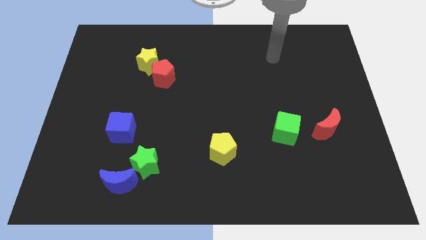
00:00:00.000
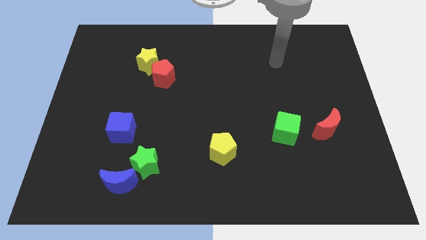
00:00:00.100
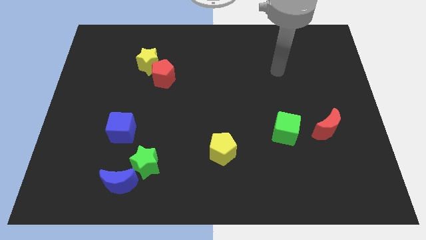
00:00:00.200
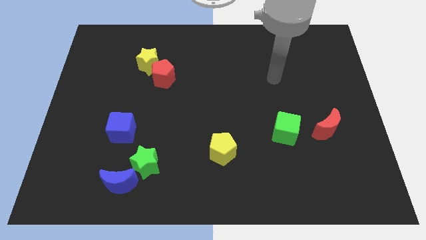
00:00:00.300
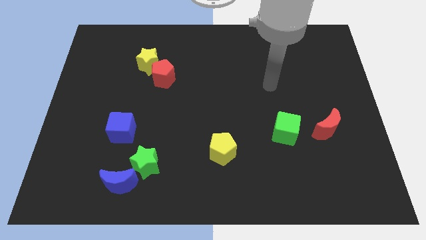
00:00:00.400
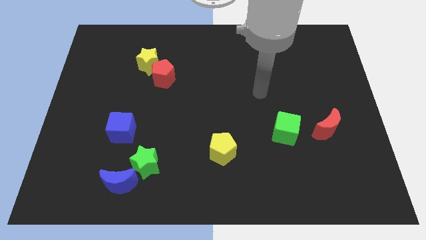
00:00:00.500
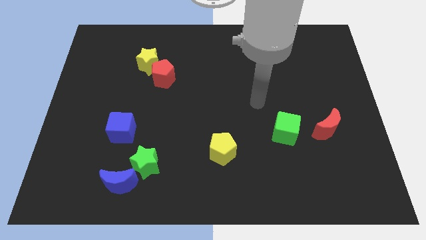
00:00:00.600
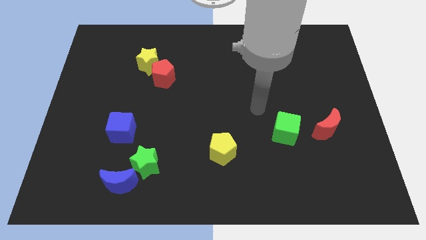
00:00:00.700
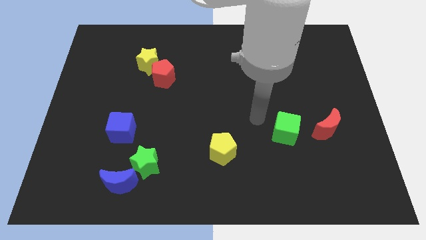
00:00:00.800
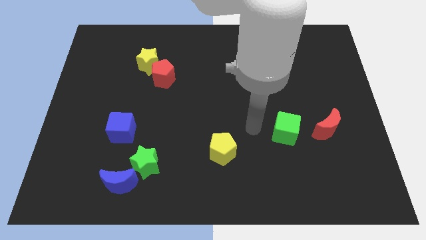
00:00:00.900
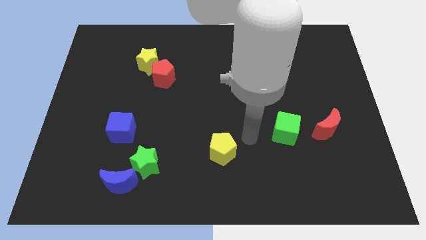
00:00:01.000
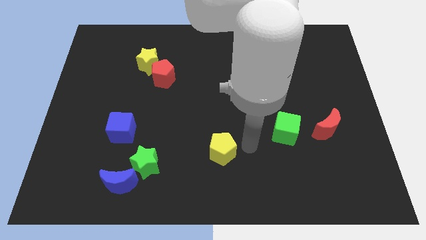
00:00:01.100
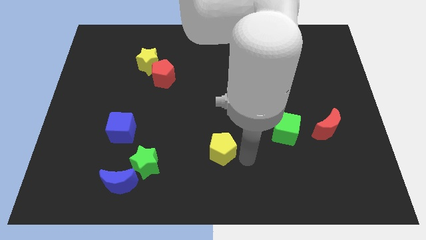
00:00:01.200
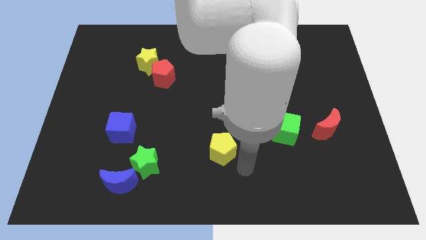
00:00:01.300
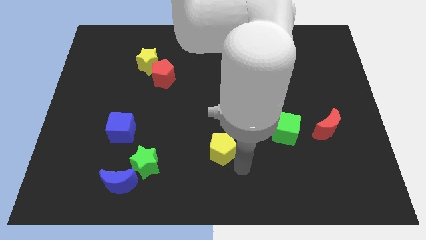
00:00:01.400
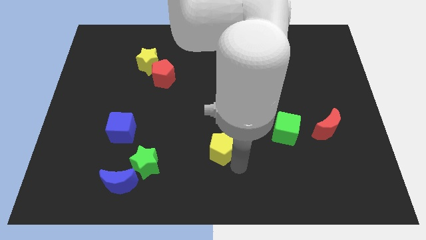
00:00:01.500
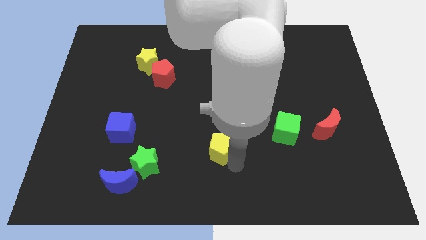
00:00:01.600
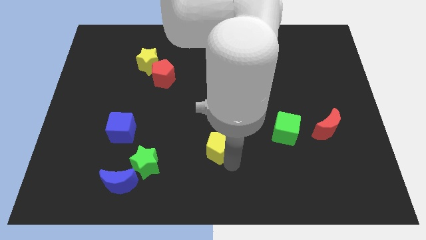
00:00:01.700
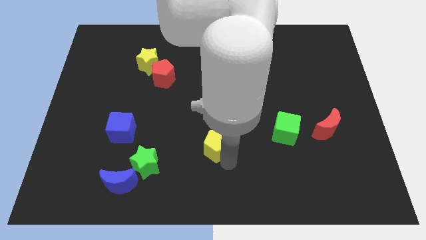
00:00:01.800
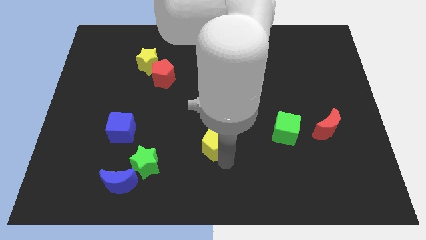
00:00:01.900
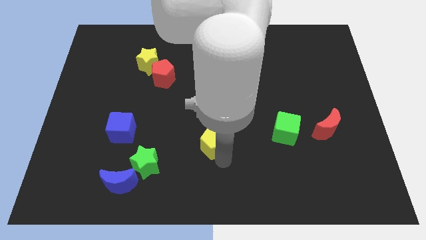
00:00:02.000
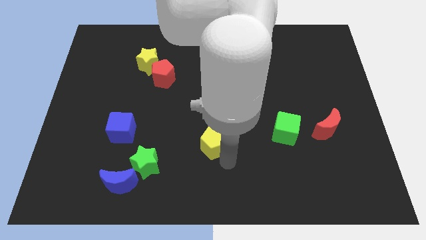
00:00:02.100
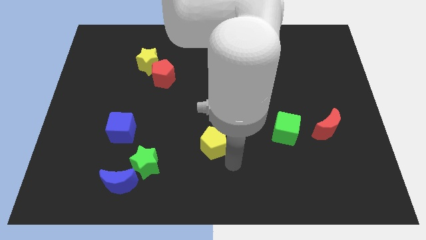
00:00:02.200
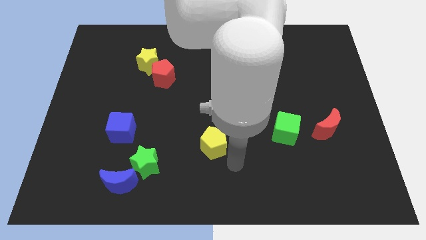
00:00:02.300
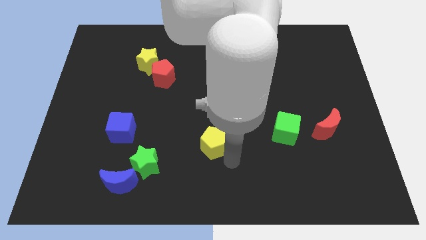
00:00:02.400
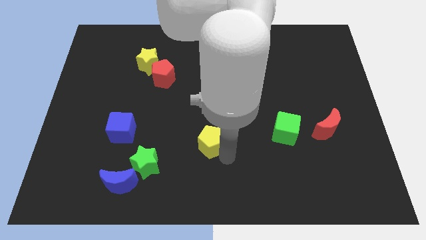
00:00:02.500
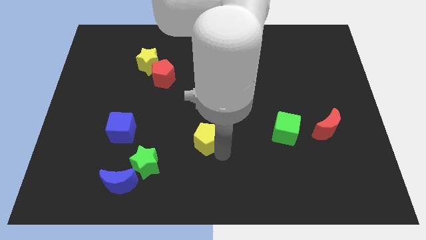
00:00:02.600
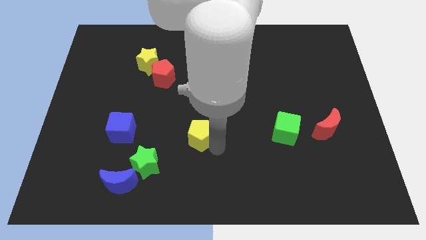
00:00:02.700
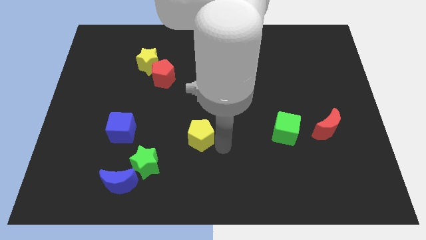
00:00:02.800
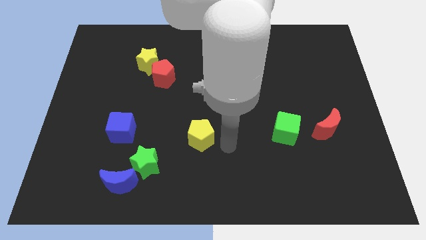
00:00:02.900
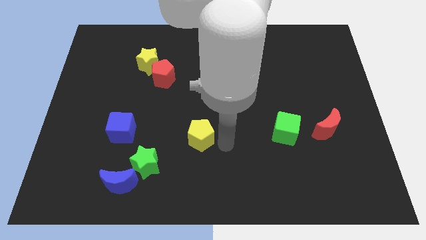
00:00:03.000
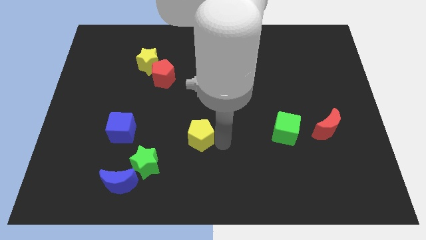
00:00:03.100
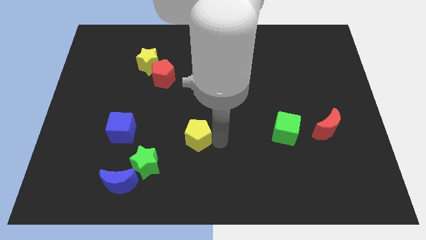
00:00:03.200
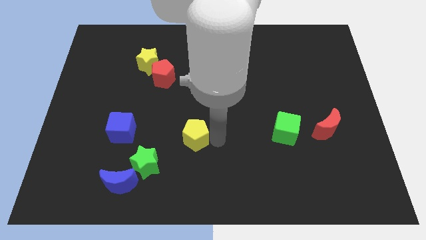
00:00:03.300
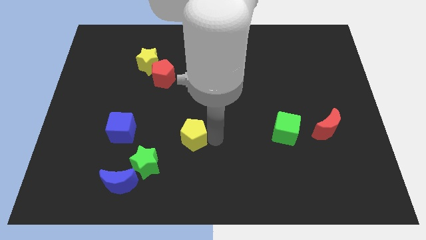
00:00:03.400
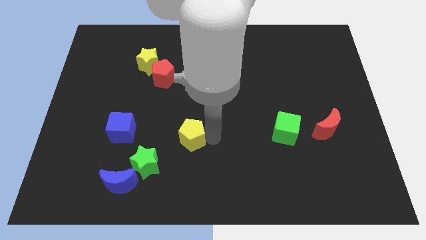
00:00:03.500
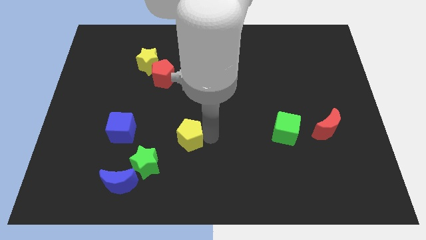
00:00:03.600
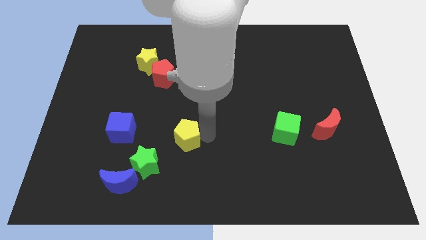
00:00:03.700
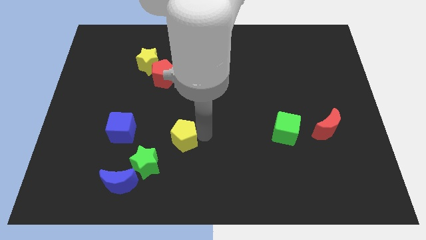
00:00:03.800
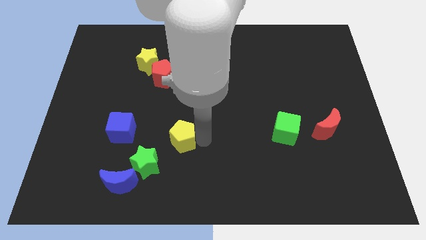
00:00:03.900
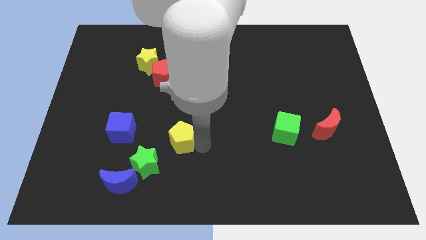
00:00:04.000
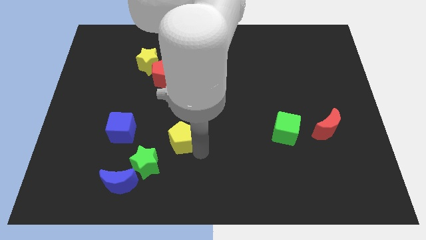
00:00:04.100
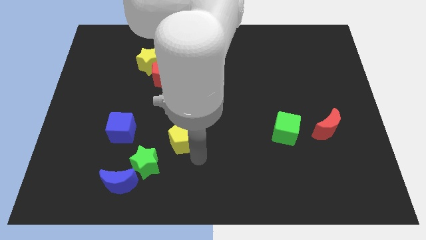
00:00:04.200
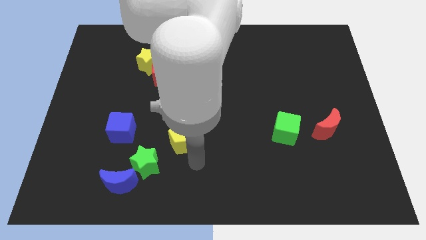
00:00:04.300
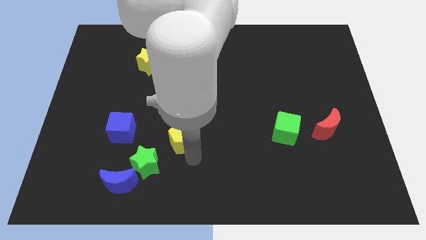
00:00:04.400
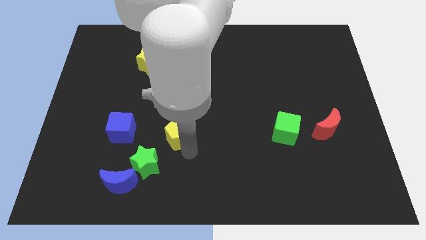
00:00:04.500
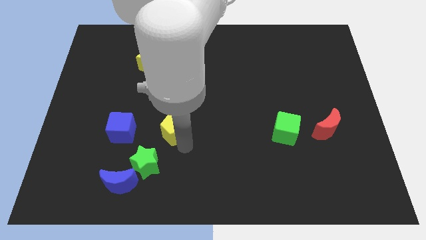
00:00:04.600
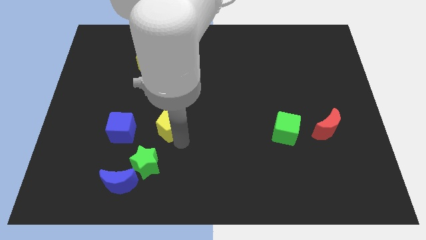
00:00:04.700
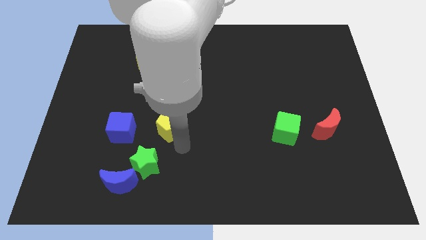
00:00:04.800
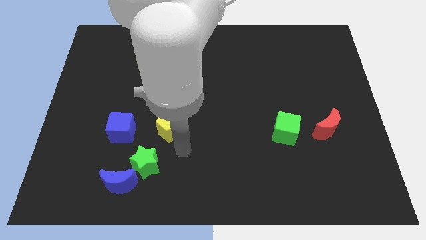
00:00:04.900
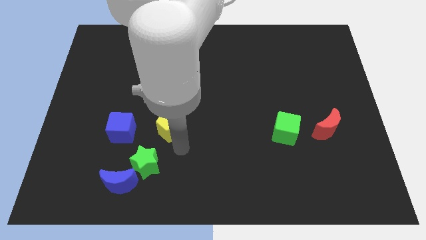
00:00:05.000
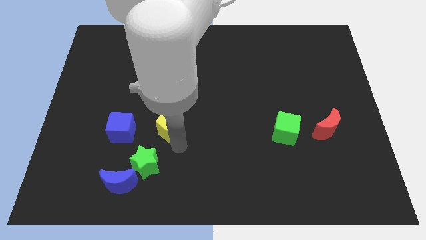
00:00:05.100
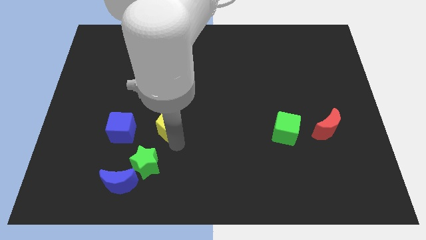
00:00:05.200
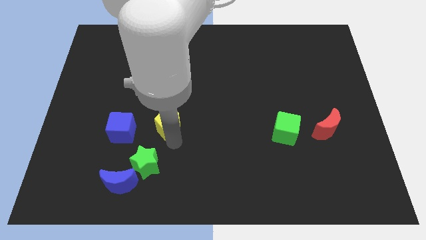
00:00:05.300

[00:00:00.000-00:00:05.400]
slide the yellow pentagon to the bottom side of the red pentagon

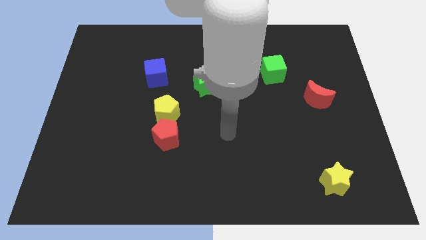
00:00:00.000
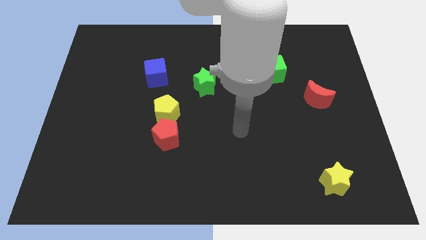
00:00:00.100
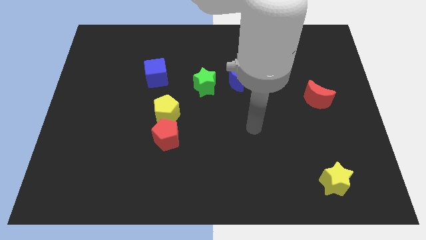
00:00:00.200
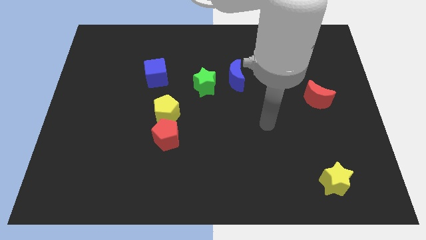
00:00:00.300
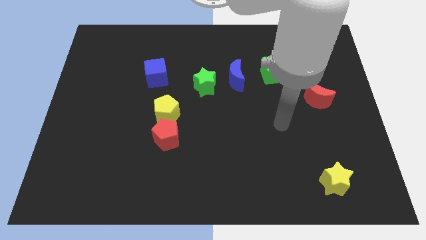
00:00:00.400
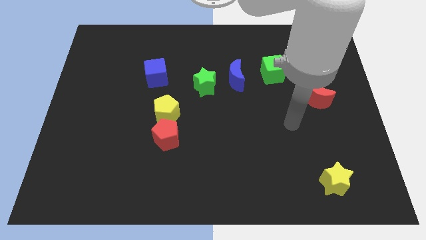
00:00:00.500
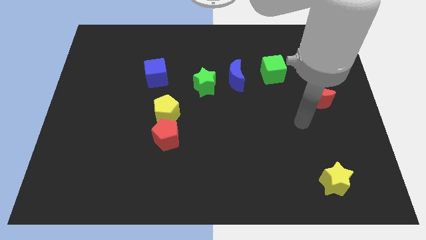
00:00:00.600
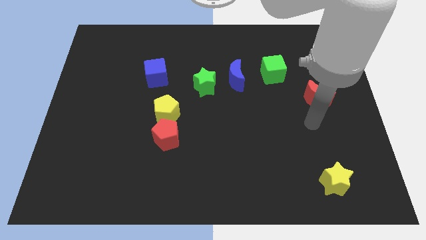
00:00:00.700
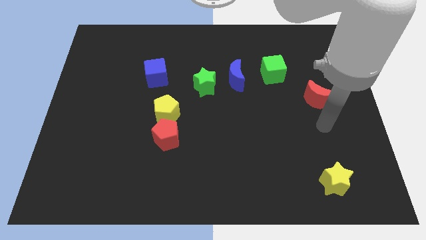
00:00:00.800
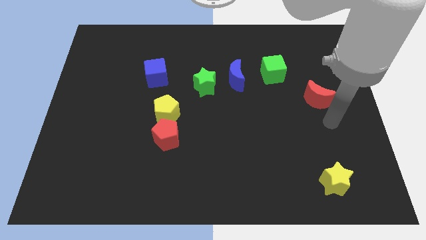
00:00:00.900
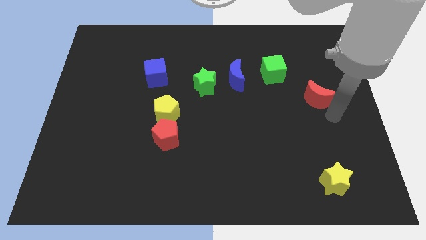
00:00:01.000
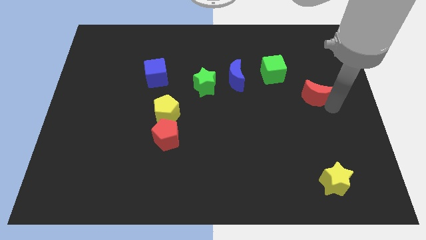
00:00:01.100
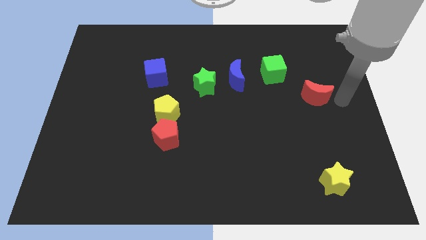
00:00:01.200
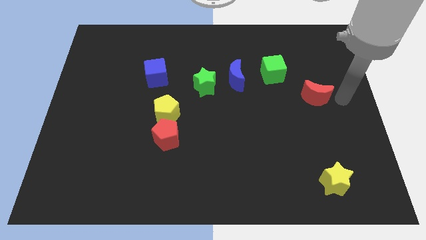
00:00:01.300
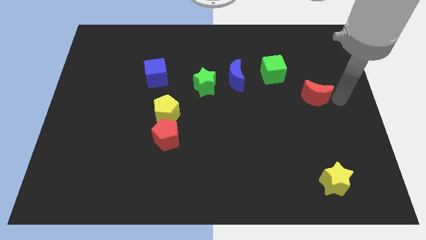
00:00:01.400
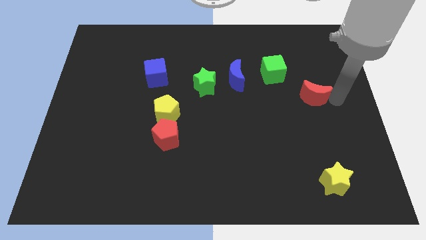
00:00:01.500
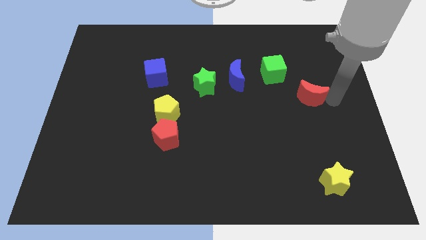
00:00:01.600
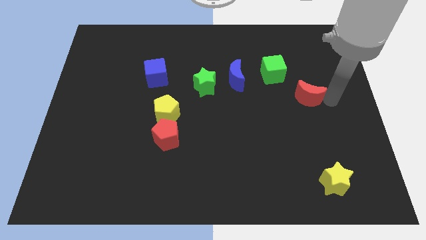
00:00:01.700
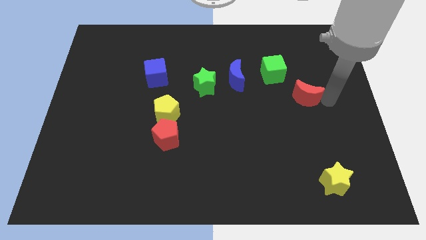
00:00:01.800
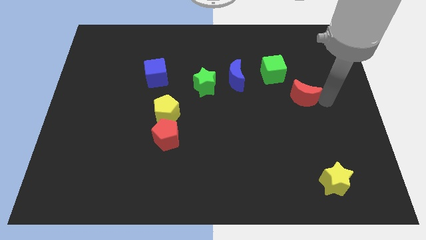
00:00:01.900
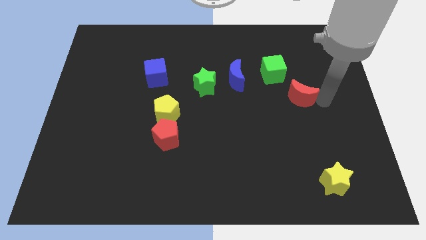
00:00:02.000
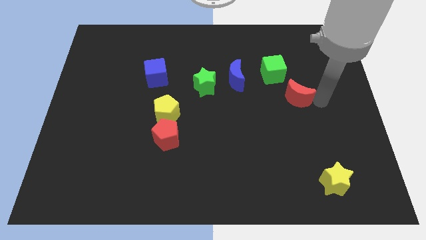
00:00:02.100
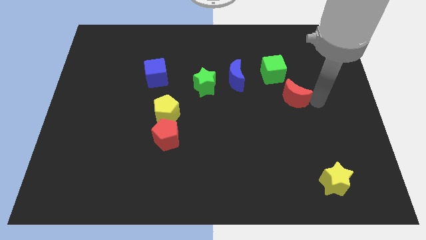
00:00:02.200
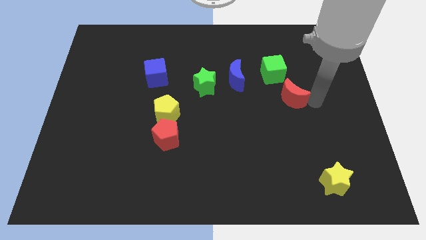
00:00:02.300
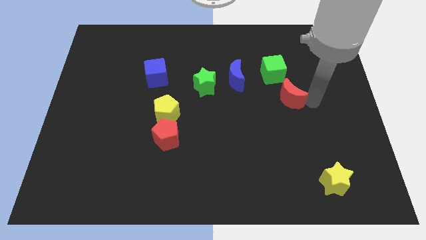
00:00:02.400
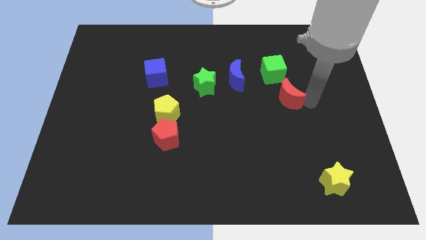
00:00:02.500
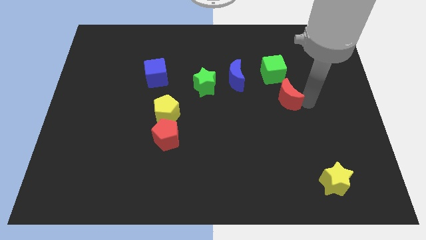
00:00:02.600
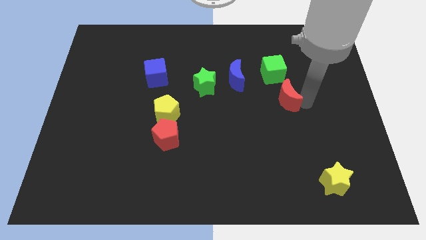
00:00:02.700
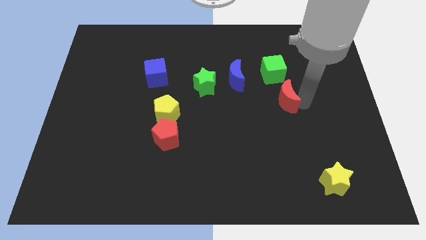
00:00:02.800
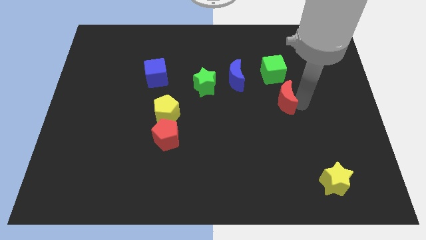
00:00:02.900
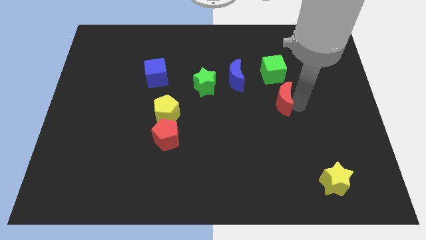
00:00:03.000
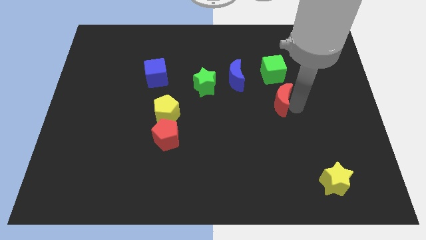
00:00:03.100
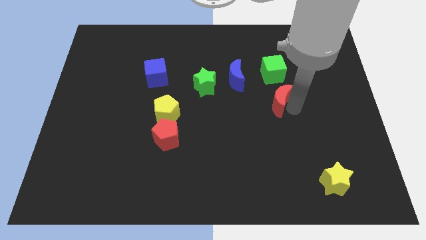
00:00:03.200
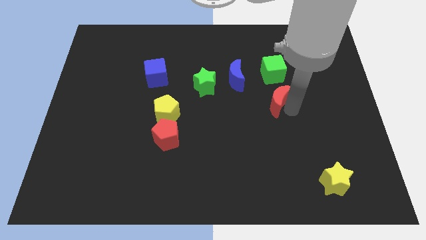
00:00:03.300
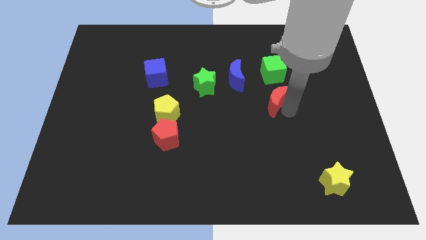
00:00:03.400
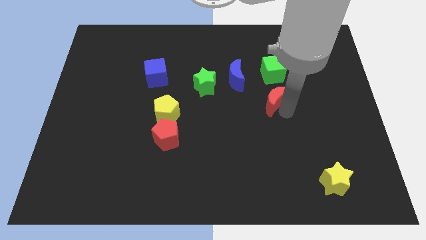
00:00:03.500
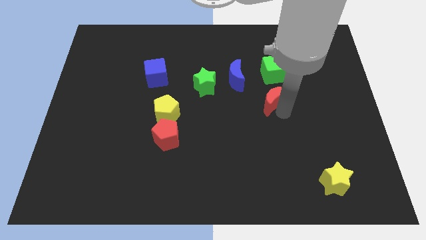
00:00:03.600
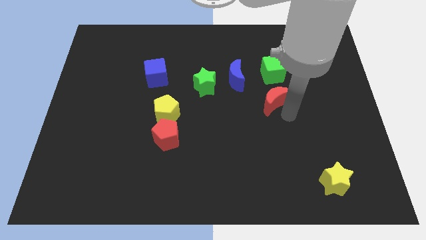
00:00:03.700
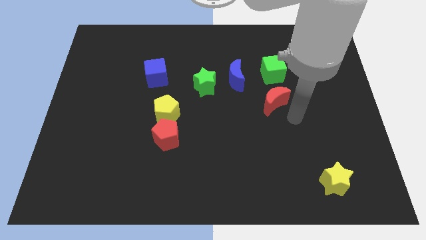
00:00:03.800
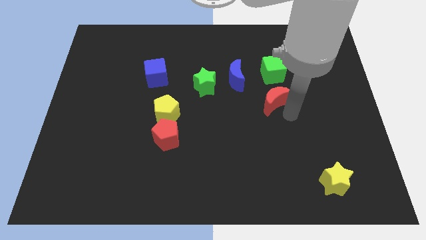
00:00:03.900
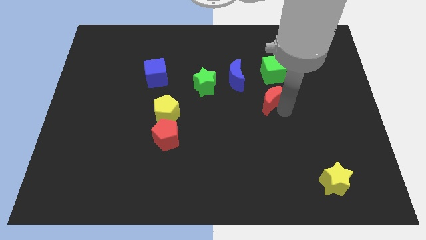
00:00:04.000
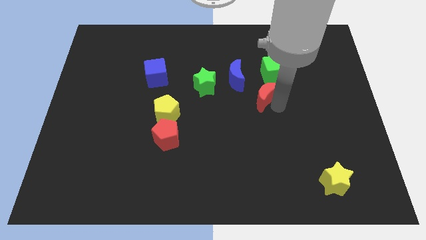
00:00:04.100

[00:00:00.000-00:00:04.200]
slide the red moon to the bottom left side of the green cube
